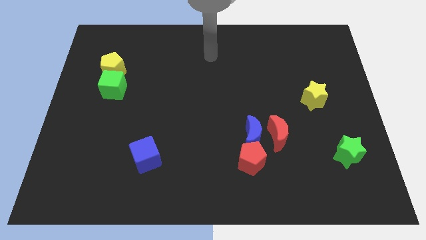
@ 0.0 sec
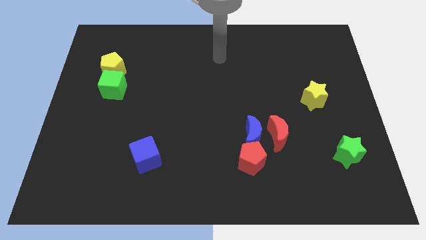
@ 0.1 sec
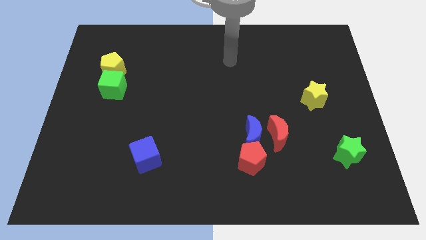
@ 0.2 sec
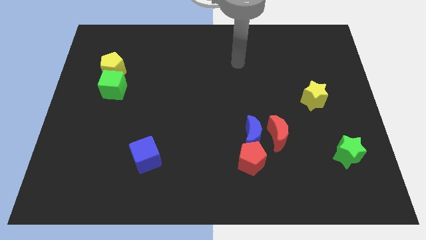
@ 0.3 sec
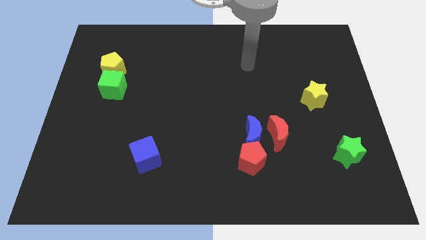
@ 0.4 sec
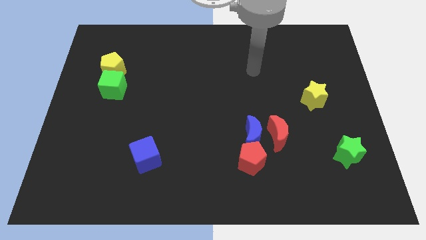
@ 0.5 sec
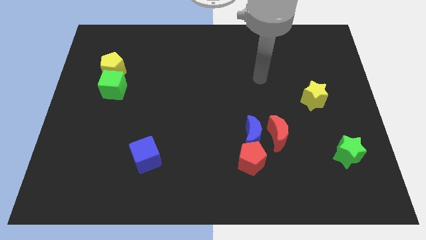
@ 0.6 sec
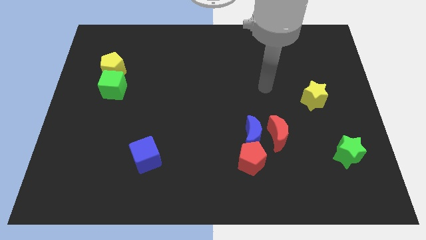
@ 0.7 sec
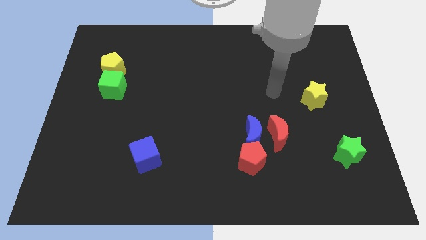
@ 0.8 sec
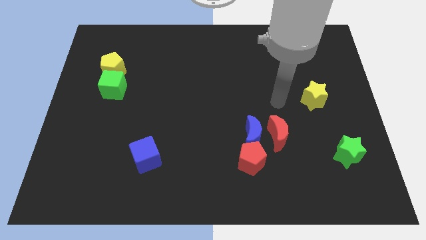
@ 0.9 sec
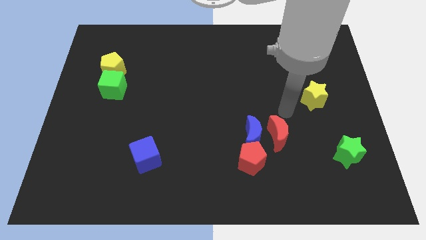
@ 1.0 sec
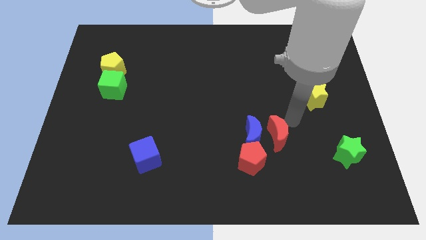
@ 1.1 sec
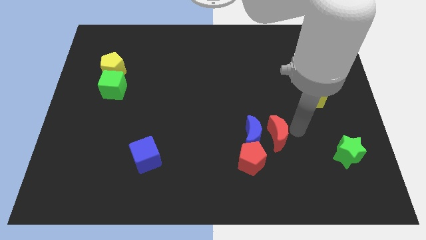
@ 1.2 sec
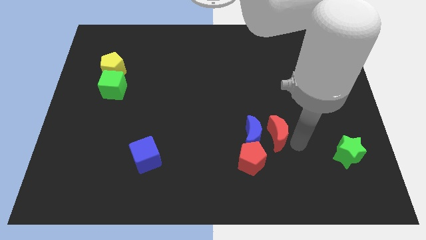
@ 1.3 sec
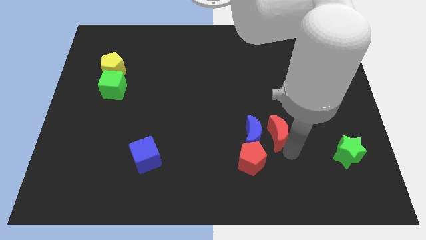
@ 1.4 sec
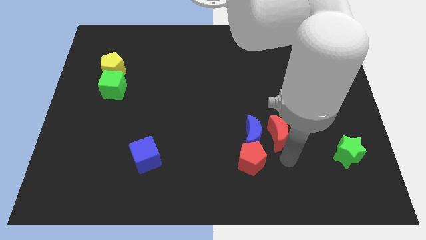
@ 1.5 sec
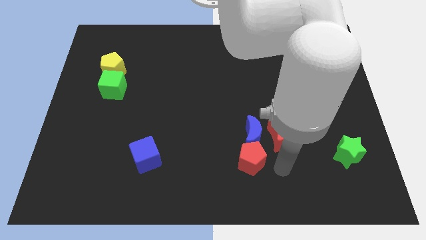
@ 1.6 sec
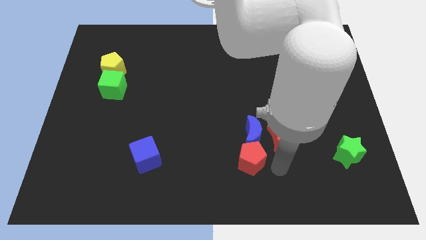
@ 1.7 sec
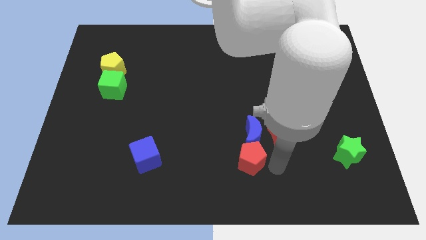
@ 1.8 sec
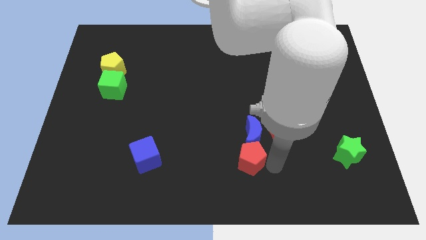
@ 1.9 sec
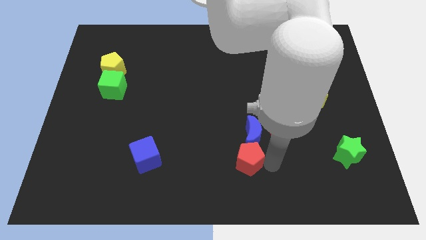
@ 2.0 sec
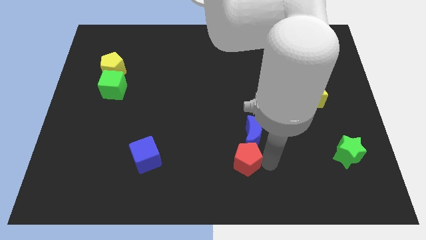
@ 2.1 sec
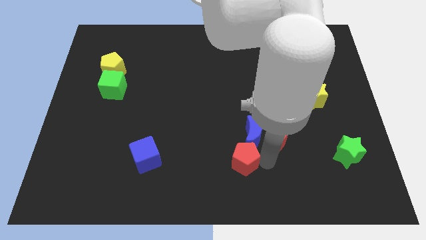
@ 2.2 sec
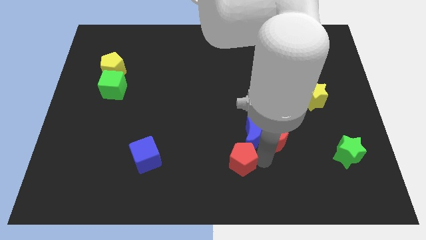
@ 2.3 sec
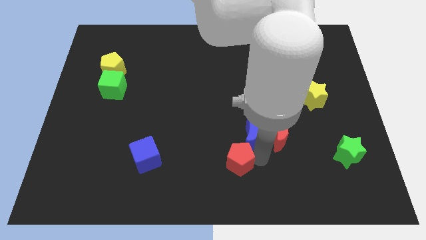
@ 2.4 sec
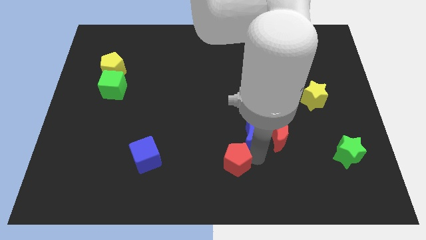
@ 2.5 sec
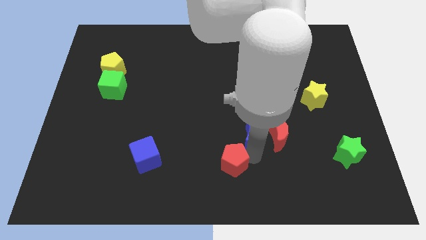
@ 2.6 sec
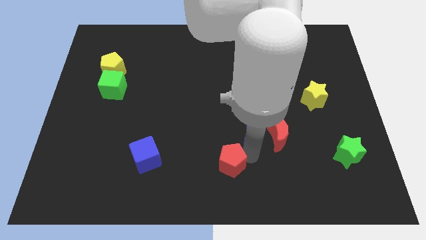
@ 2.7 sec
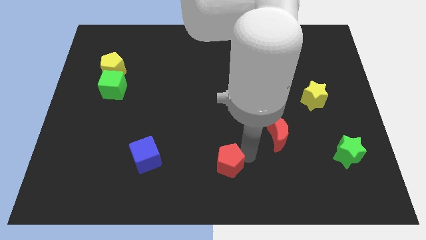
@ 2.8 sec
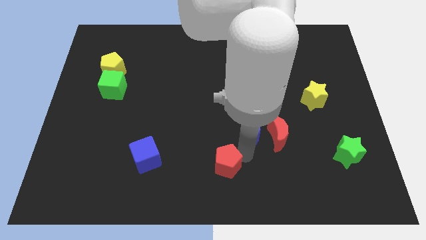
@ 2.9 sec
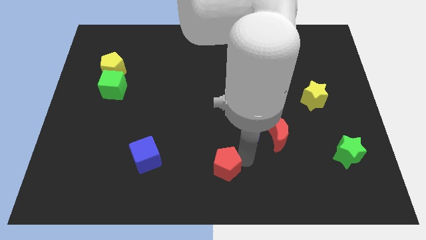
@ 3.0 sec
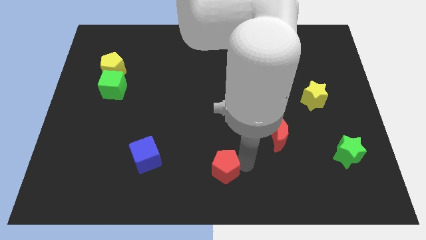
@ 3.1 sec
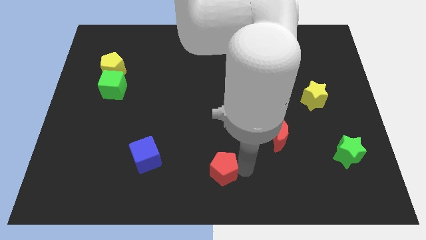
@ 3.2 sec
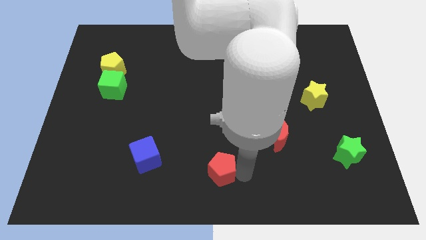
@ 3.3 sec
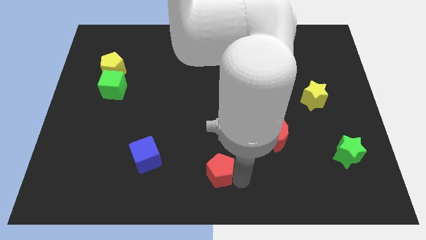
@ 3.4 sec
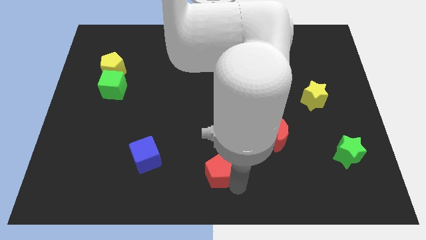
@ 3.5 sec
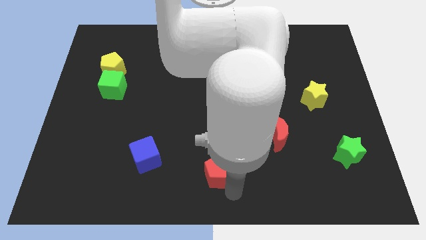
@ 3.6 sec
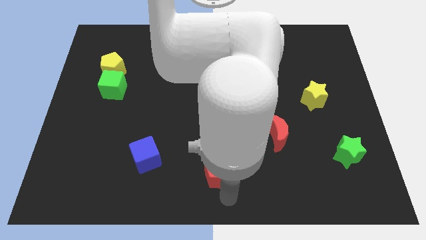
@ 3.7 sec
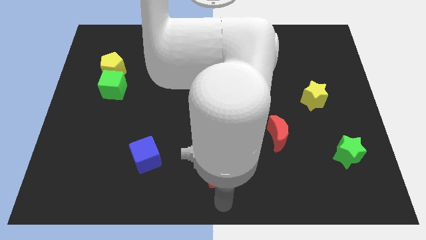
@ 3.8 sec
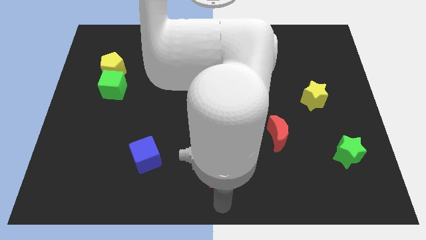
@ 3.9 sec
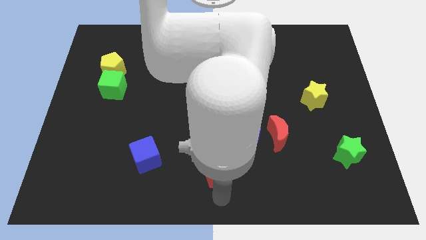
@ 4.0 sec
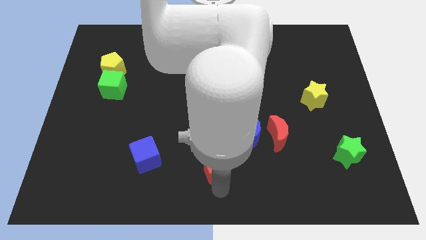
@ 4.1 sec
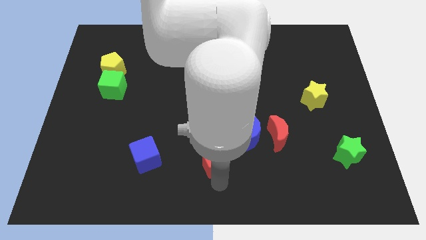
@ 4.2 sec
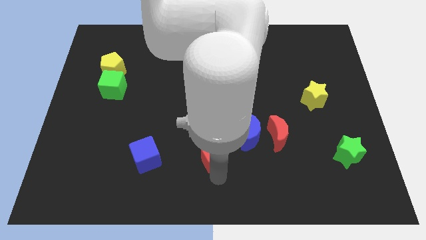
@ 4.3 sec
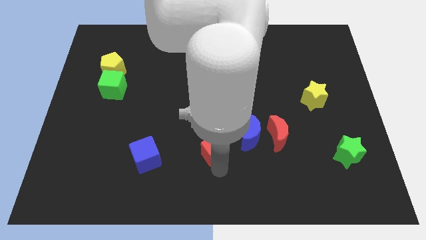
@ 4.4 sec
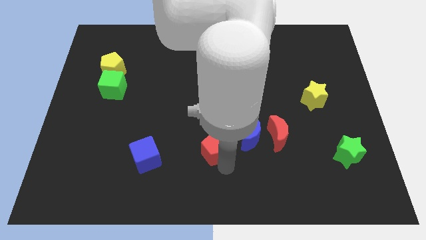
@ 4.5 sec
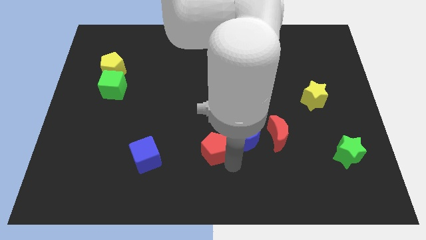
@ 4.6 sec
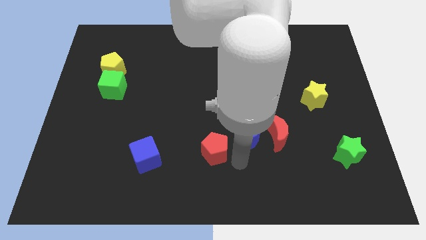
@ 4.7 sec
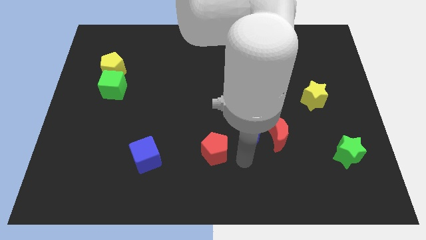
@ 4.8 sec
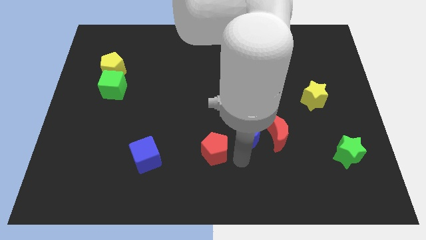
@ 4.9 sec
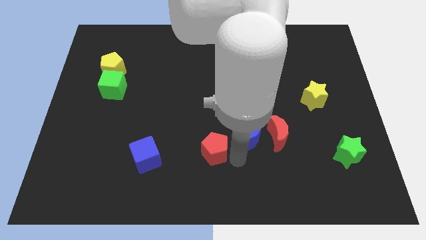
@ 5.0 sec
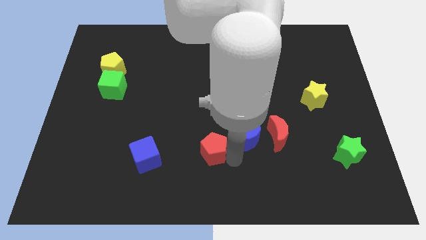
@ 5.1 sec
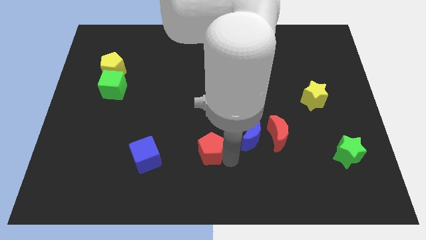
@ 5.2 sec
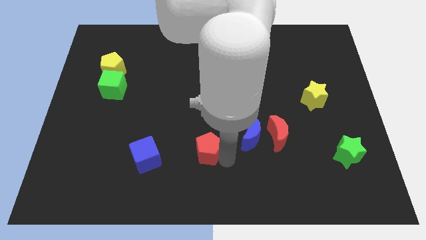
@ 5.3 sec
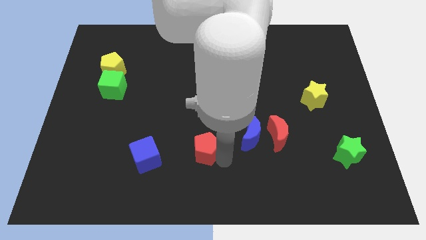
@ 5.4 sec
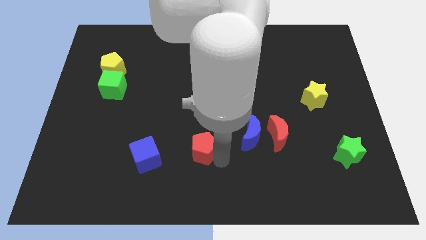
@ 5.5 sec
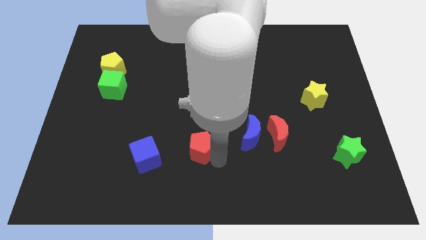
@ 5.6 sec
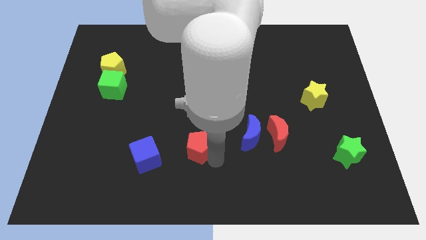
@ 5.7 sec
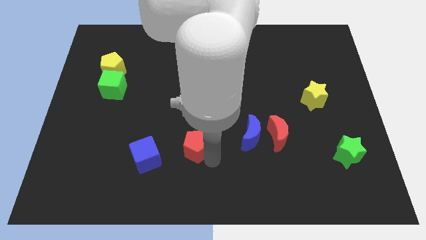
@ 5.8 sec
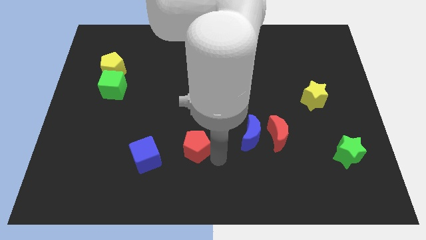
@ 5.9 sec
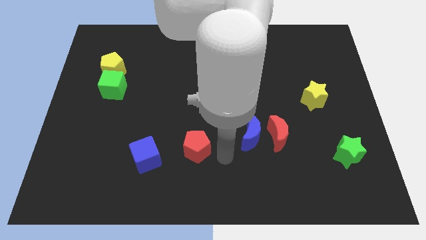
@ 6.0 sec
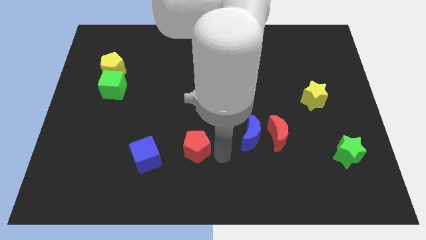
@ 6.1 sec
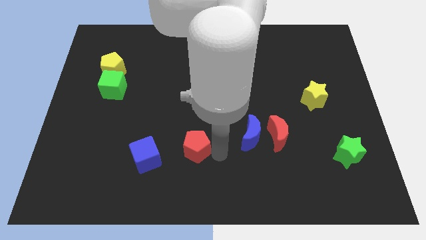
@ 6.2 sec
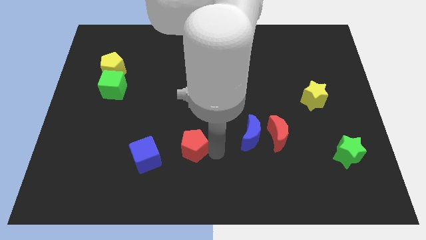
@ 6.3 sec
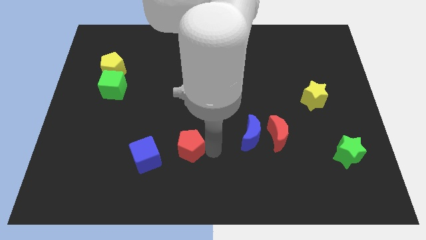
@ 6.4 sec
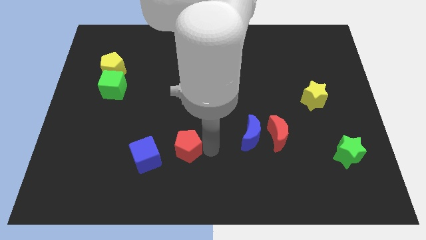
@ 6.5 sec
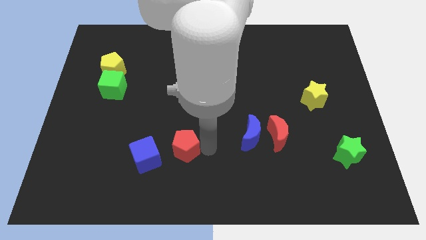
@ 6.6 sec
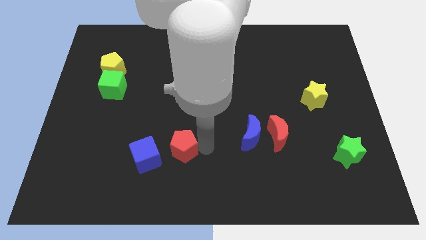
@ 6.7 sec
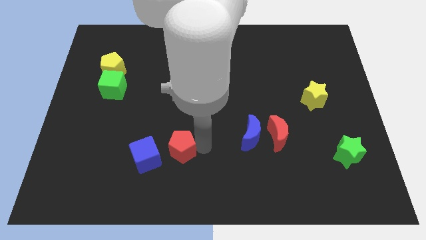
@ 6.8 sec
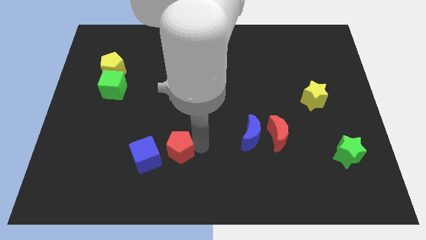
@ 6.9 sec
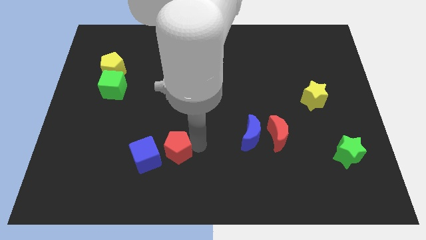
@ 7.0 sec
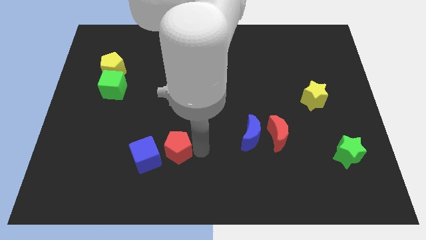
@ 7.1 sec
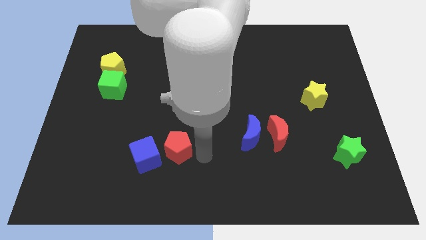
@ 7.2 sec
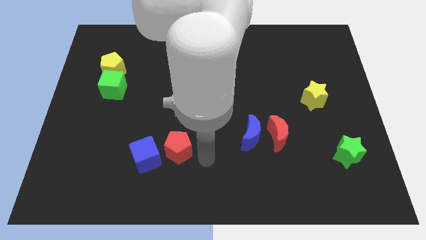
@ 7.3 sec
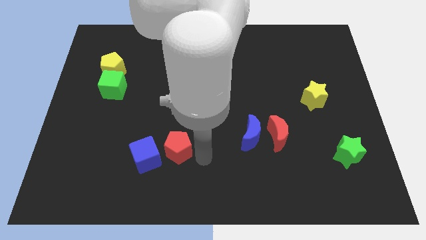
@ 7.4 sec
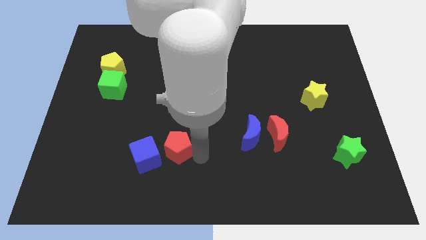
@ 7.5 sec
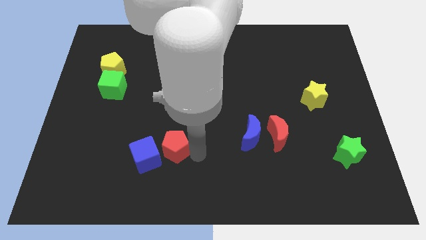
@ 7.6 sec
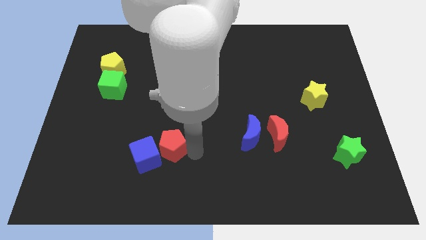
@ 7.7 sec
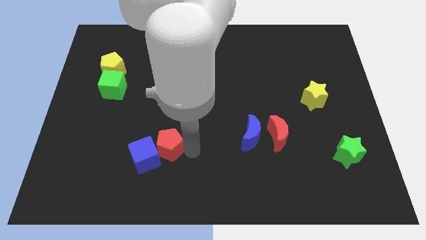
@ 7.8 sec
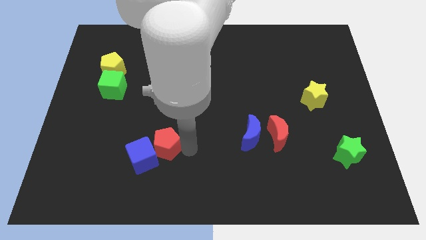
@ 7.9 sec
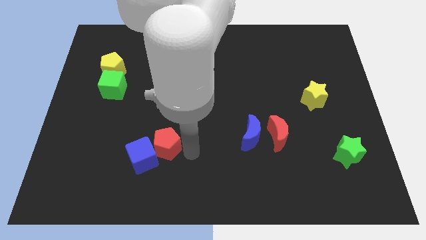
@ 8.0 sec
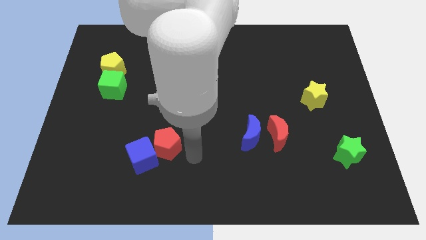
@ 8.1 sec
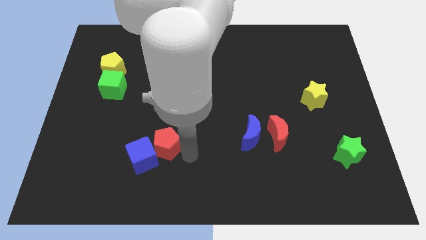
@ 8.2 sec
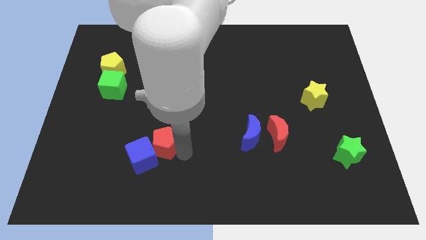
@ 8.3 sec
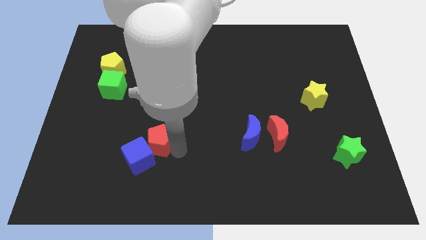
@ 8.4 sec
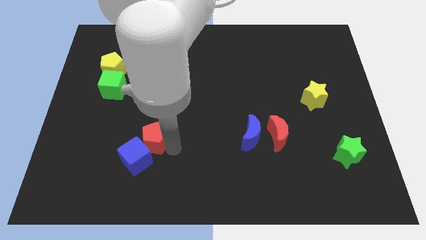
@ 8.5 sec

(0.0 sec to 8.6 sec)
move the red pentagon left
